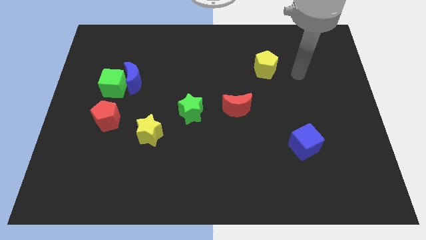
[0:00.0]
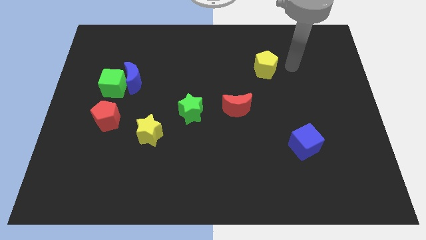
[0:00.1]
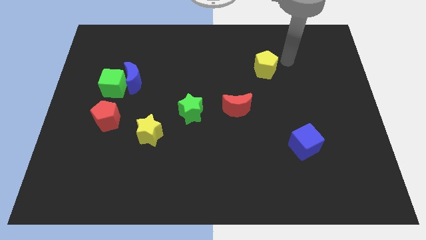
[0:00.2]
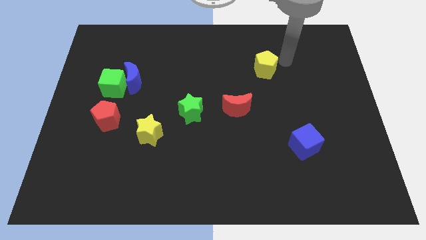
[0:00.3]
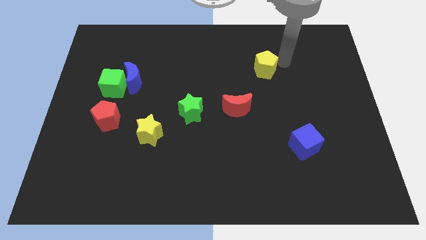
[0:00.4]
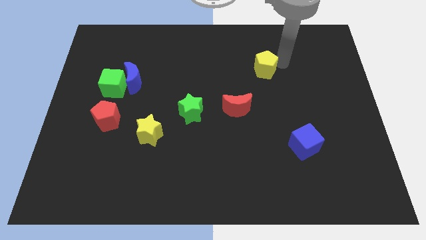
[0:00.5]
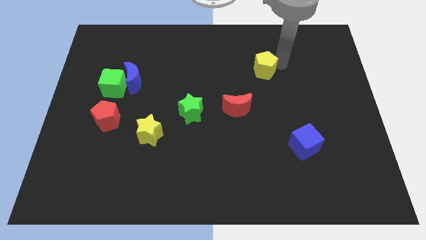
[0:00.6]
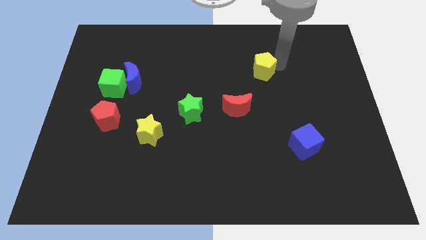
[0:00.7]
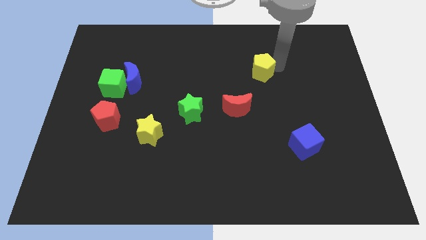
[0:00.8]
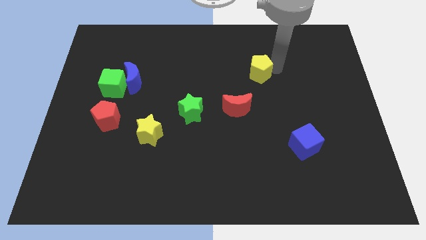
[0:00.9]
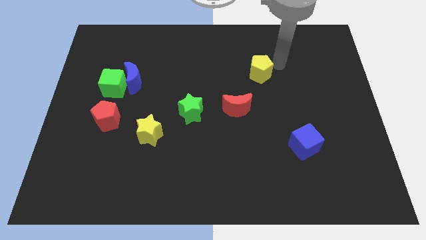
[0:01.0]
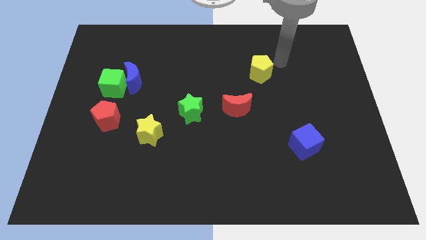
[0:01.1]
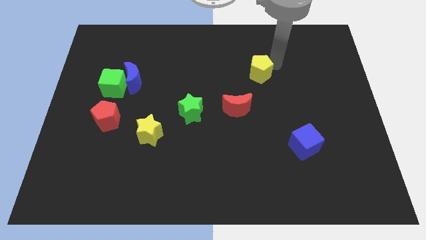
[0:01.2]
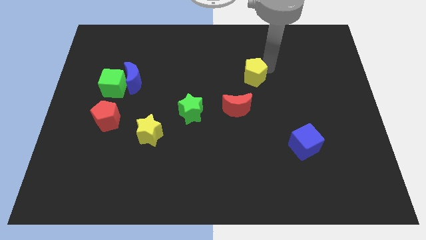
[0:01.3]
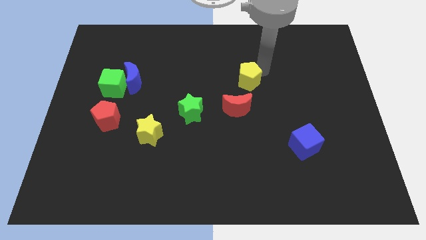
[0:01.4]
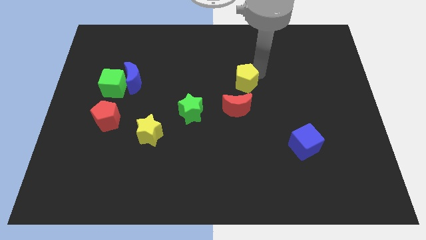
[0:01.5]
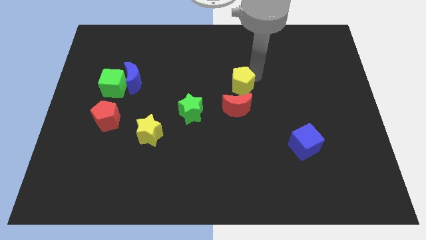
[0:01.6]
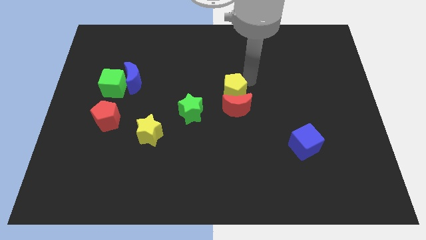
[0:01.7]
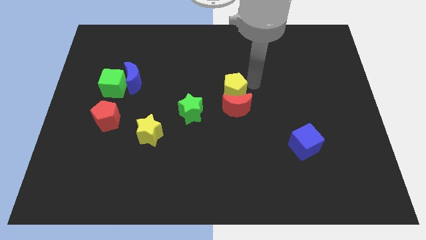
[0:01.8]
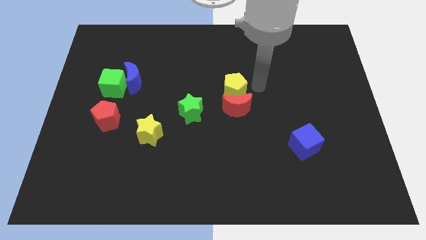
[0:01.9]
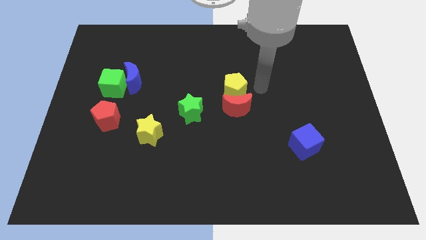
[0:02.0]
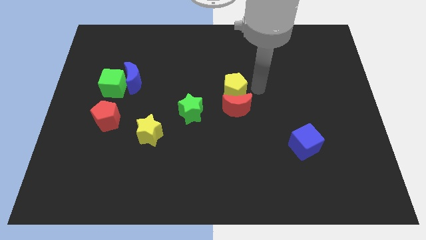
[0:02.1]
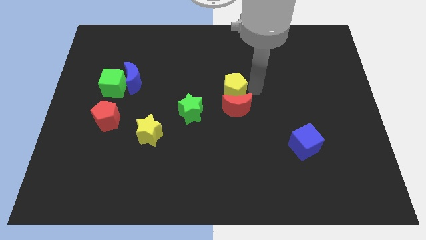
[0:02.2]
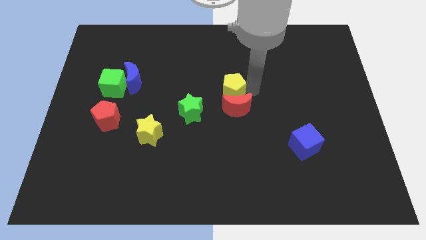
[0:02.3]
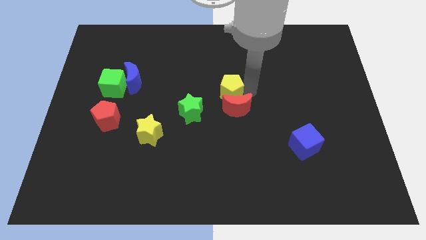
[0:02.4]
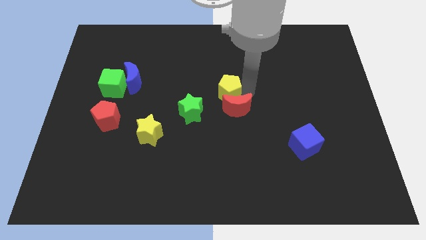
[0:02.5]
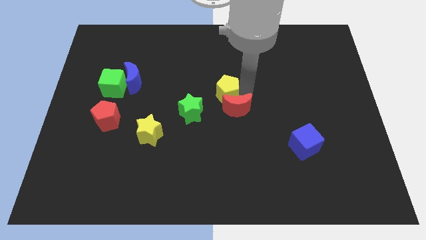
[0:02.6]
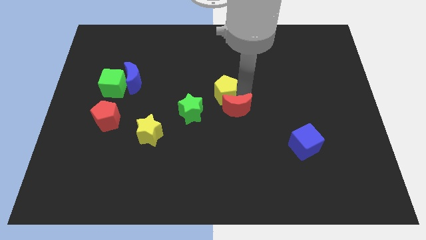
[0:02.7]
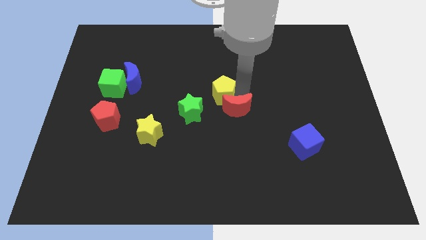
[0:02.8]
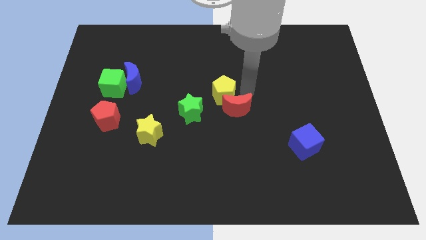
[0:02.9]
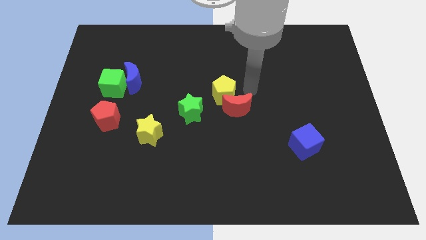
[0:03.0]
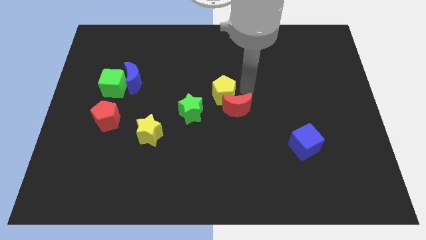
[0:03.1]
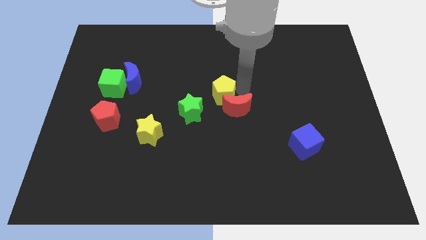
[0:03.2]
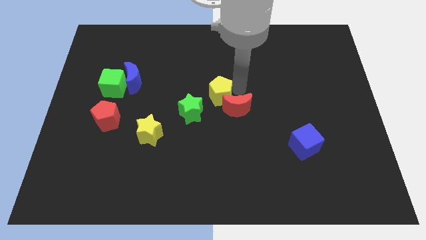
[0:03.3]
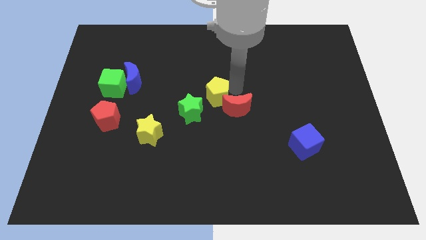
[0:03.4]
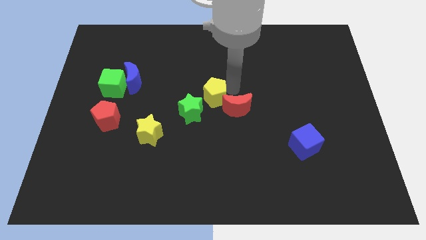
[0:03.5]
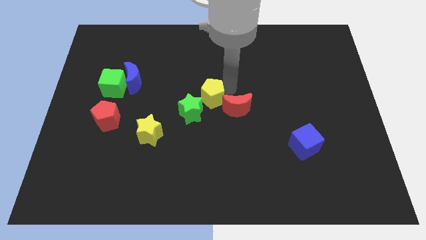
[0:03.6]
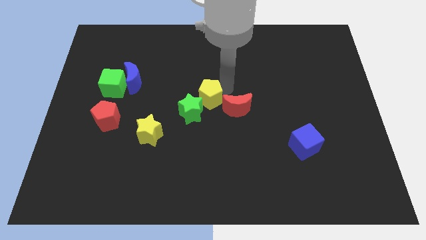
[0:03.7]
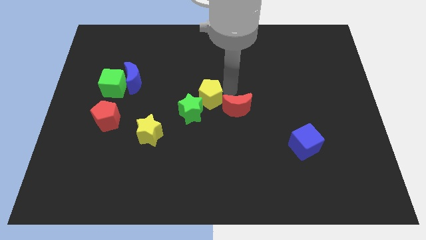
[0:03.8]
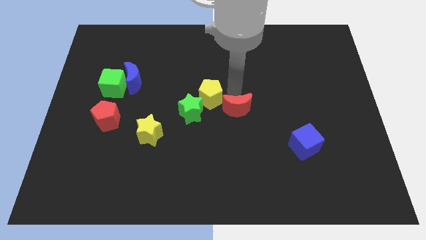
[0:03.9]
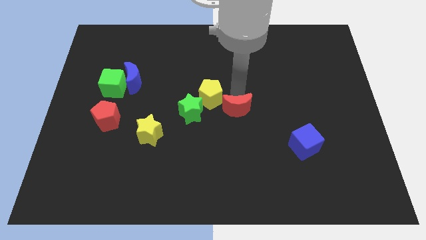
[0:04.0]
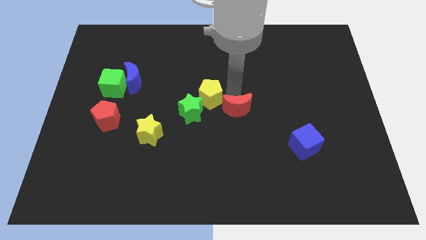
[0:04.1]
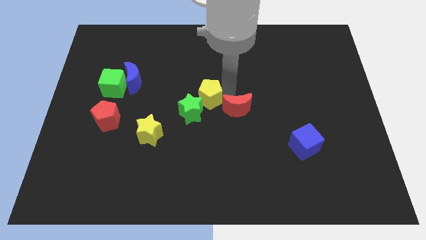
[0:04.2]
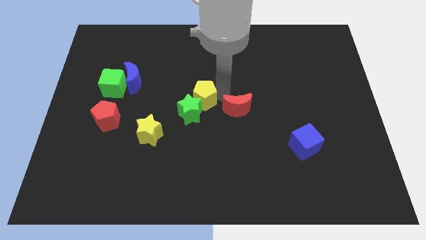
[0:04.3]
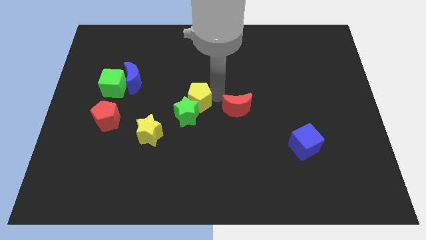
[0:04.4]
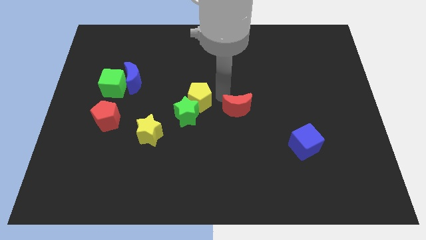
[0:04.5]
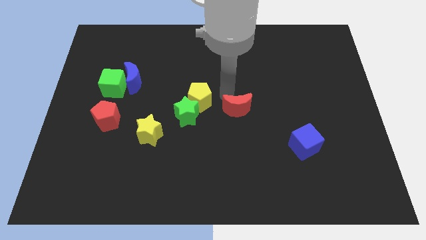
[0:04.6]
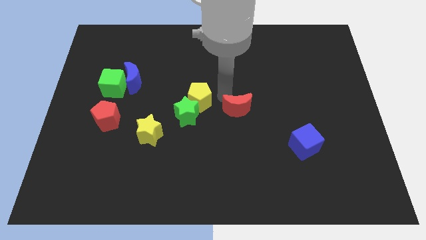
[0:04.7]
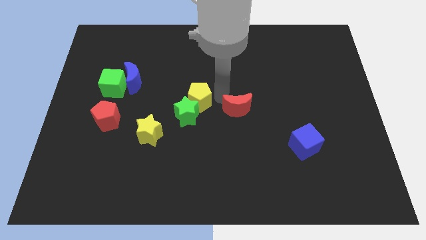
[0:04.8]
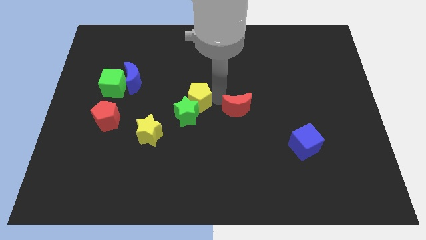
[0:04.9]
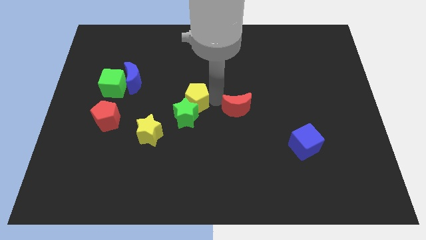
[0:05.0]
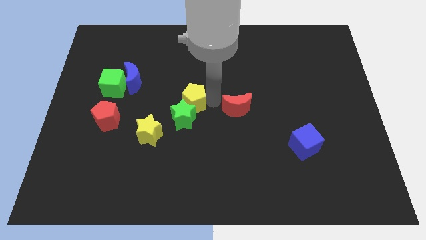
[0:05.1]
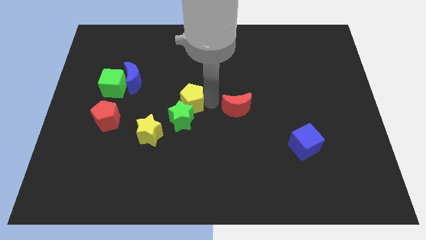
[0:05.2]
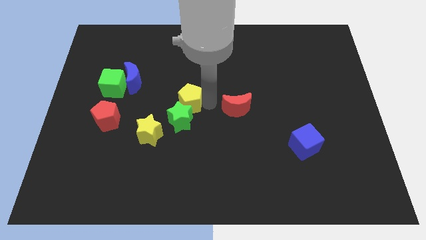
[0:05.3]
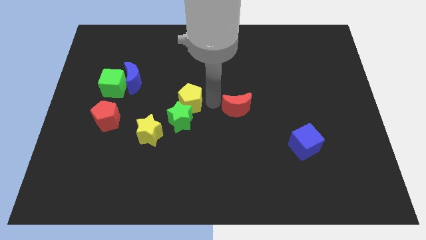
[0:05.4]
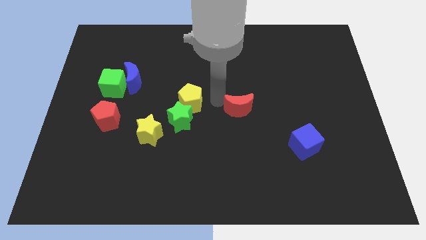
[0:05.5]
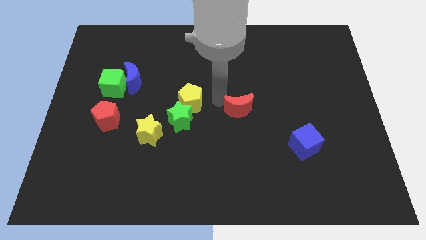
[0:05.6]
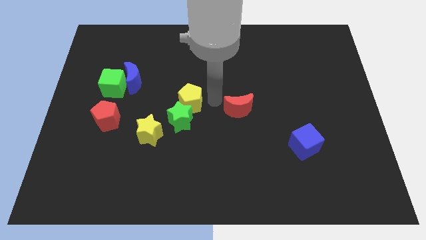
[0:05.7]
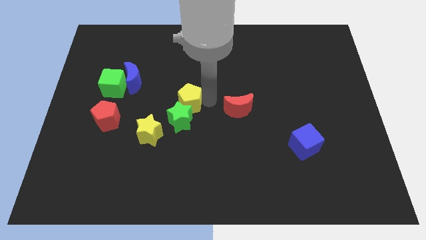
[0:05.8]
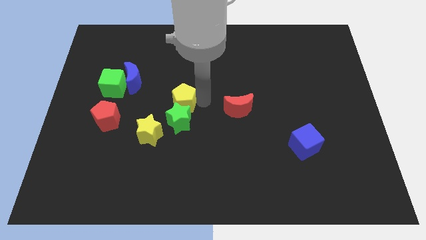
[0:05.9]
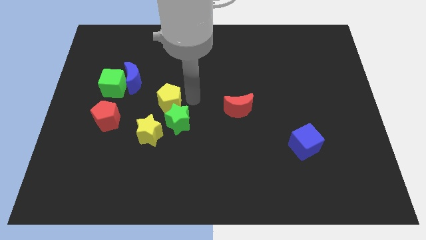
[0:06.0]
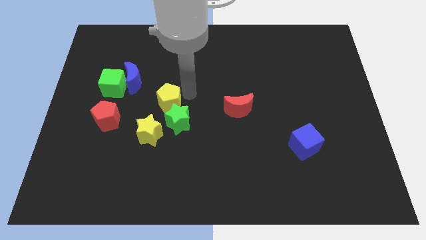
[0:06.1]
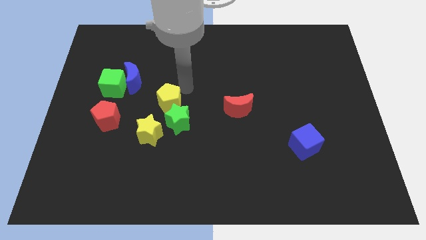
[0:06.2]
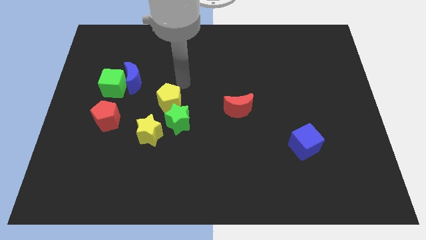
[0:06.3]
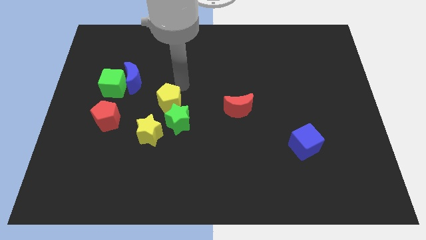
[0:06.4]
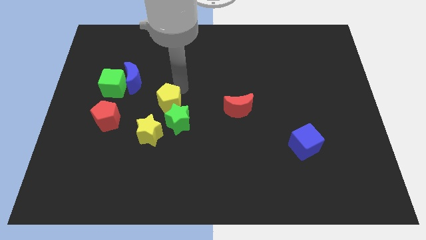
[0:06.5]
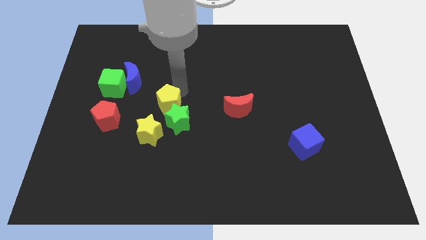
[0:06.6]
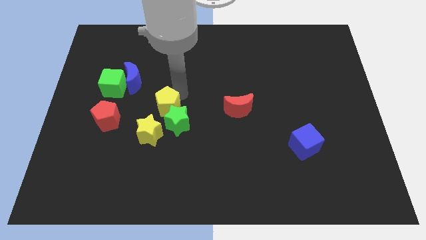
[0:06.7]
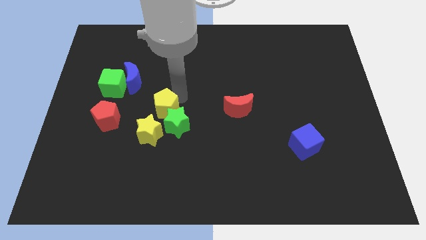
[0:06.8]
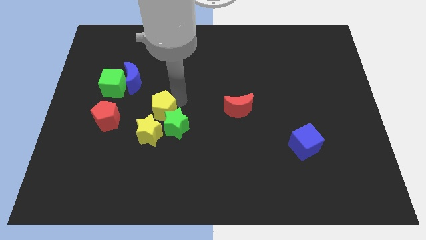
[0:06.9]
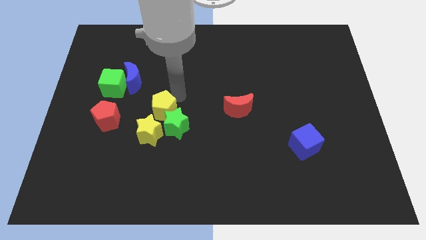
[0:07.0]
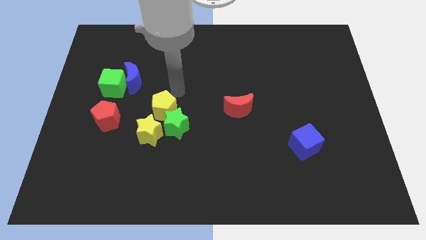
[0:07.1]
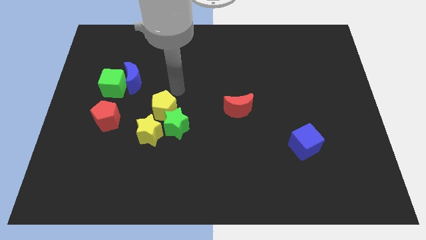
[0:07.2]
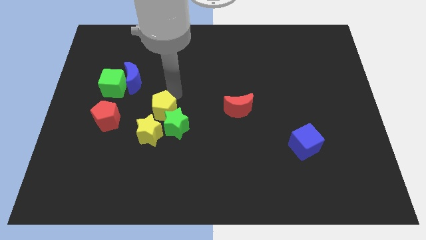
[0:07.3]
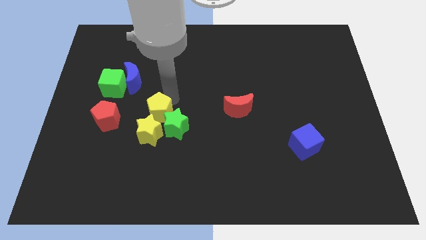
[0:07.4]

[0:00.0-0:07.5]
put the yellow pentagon to the yellow star
